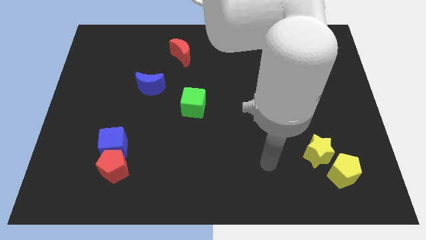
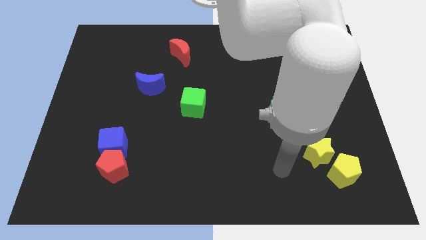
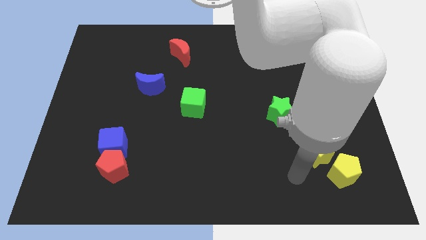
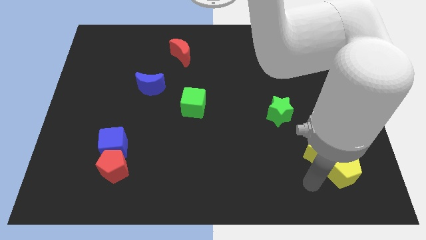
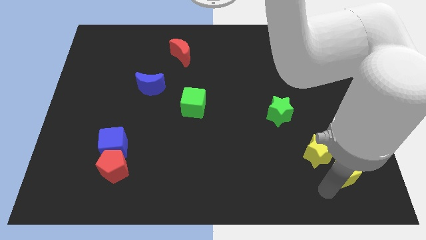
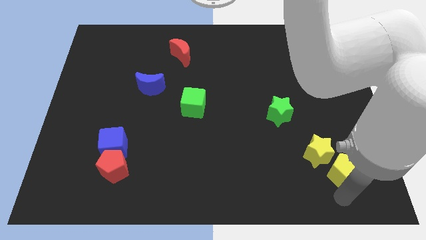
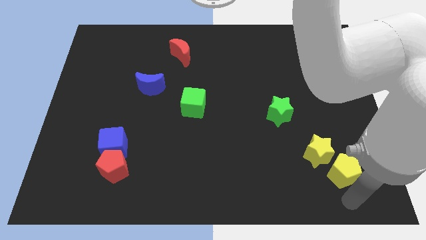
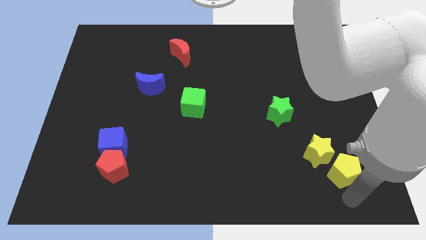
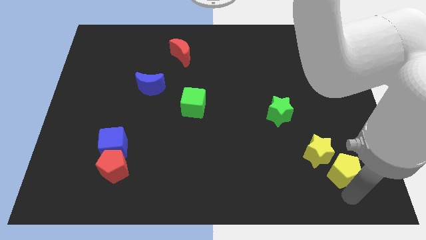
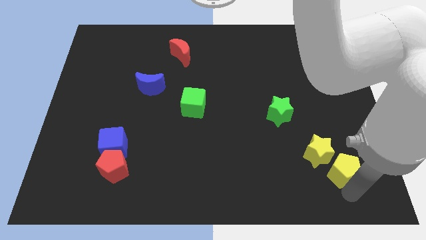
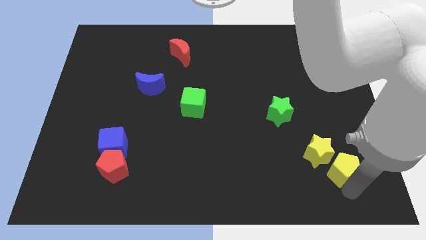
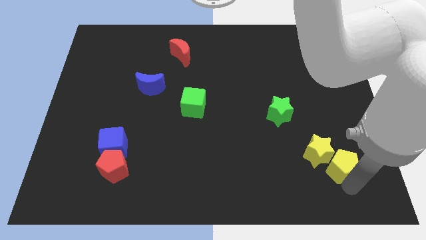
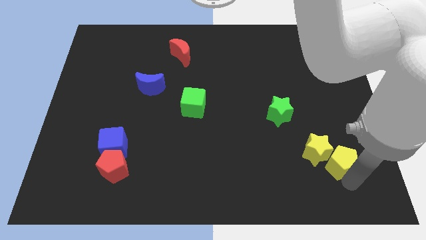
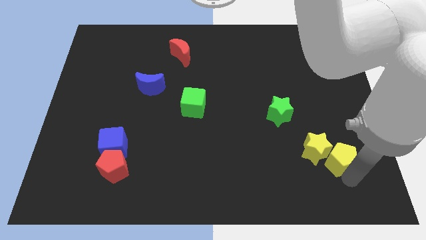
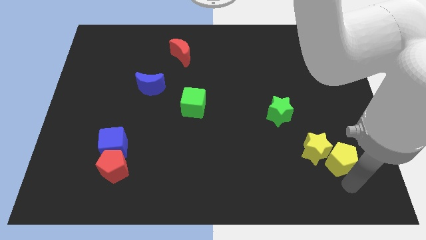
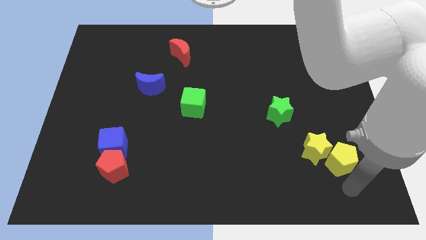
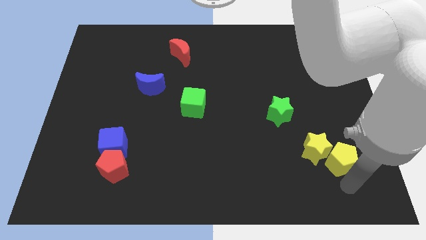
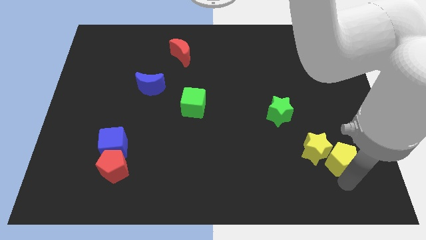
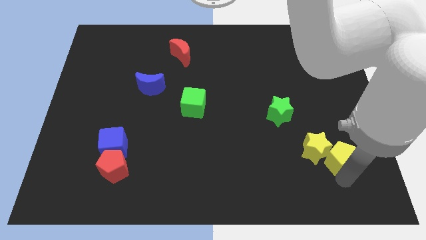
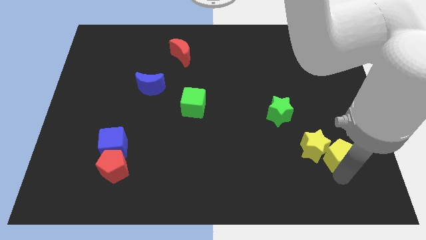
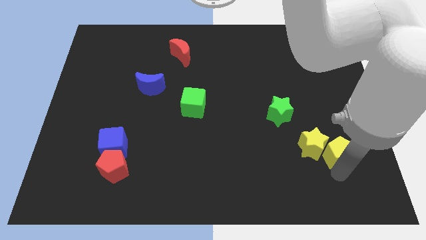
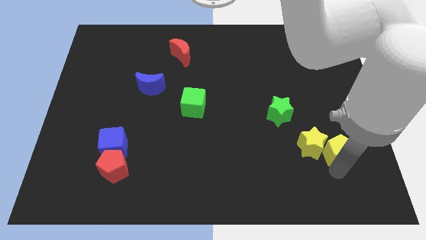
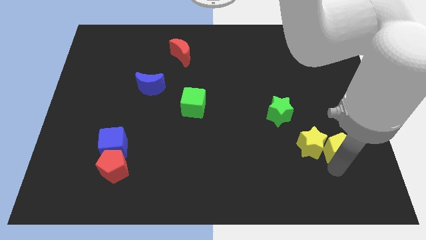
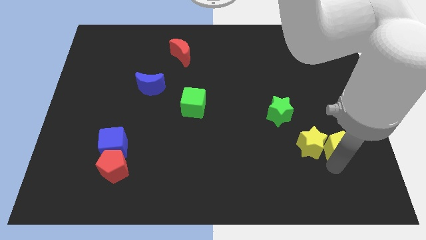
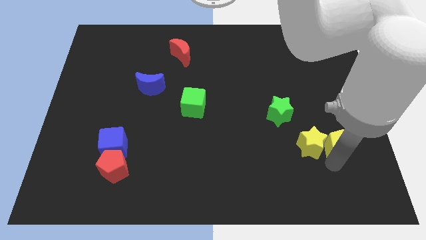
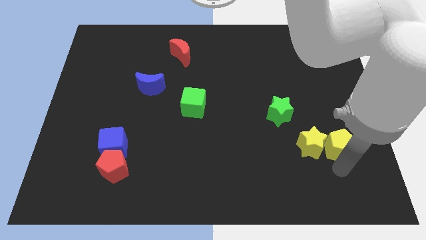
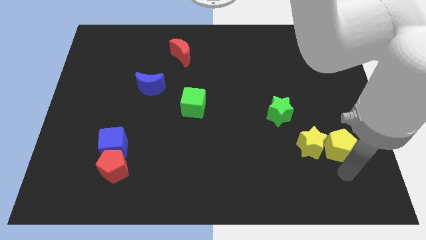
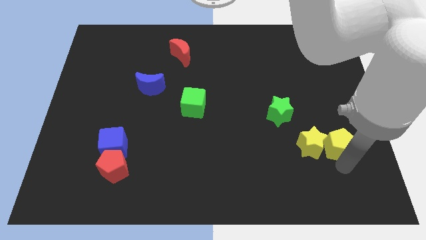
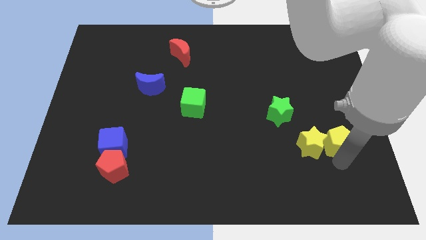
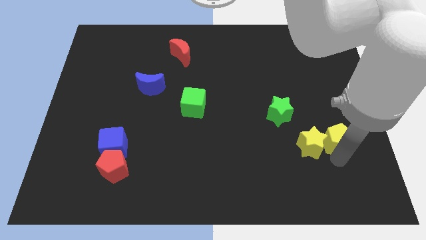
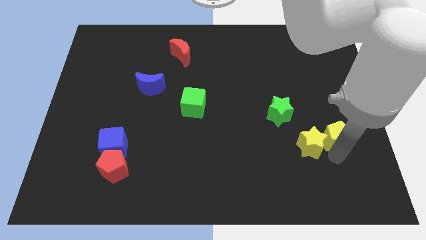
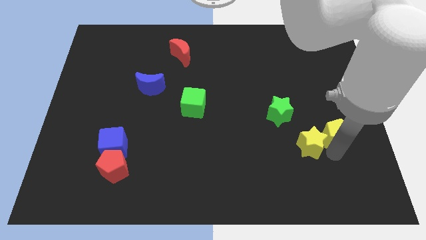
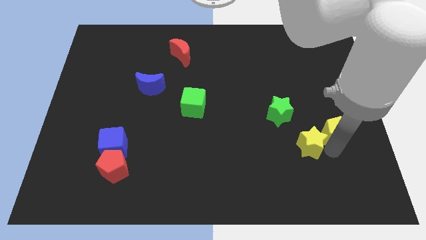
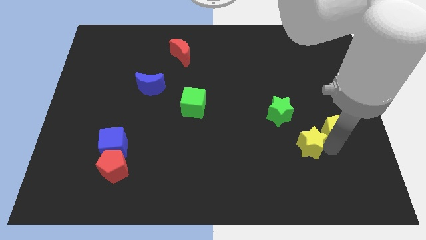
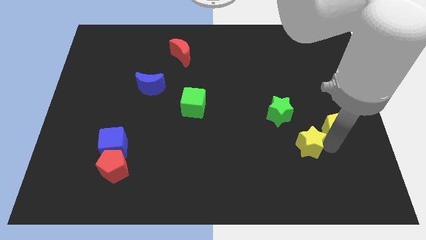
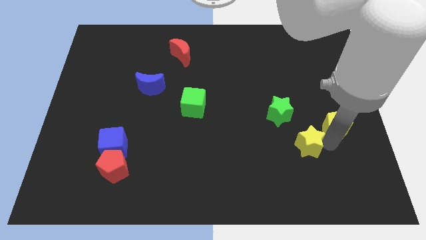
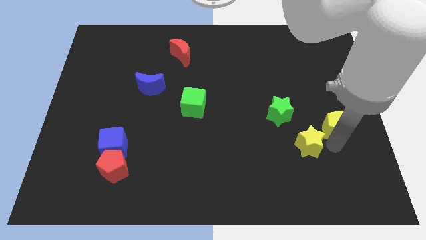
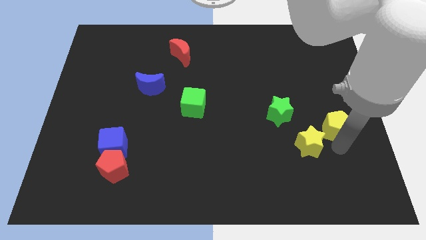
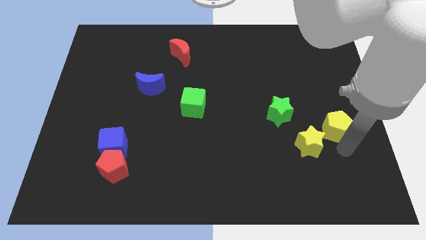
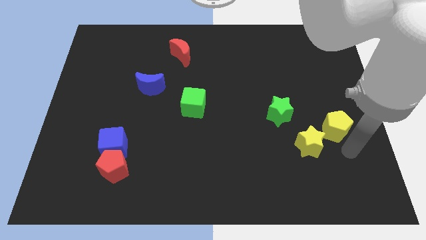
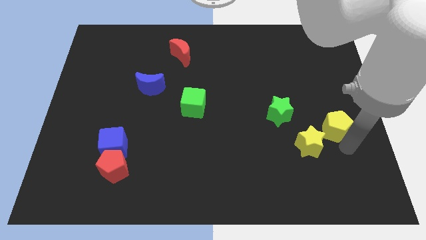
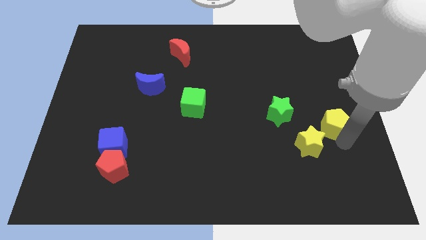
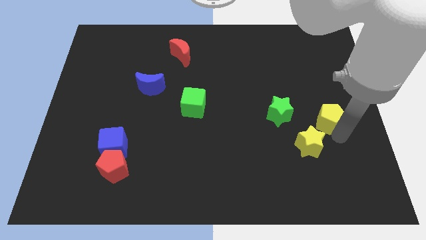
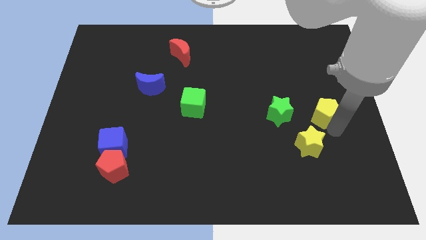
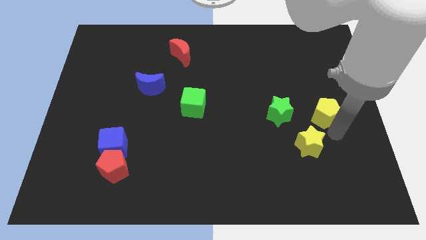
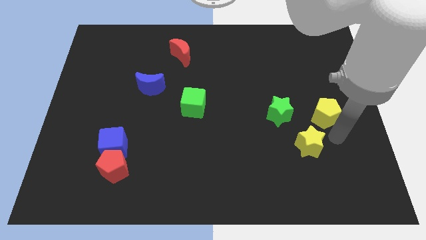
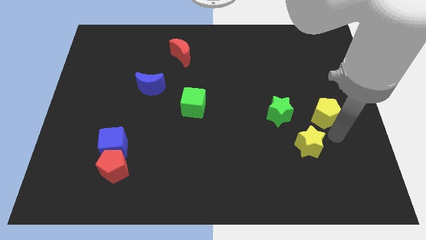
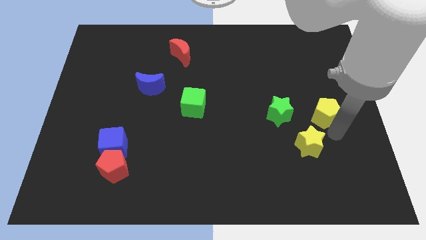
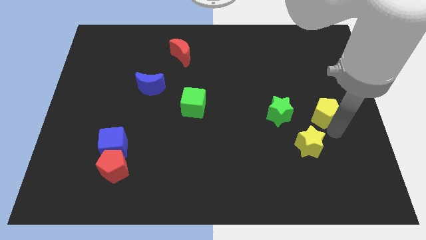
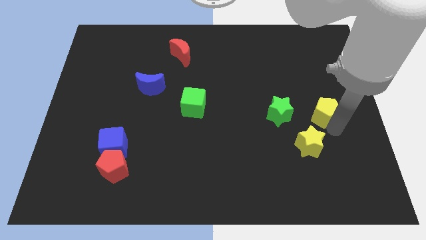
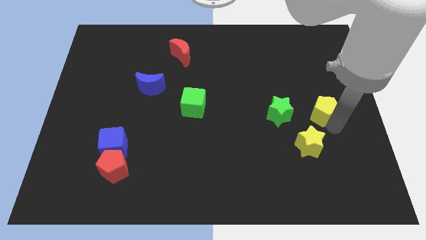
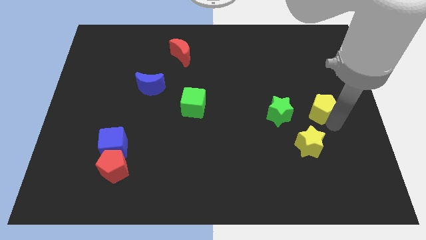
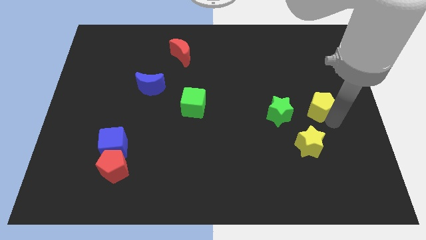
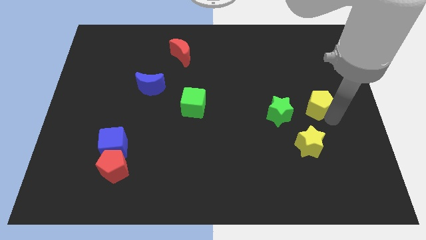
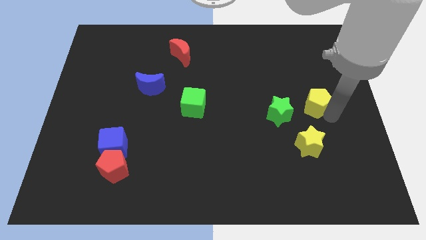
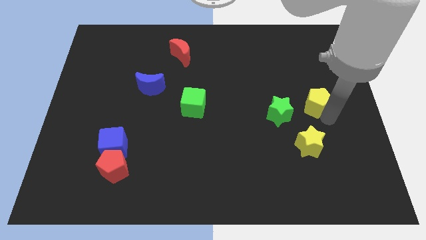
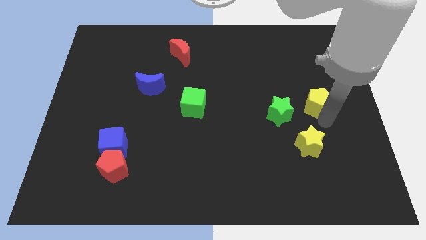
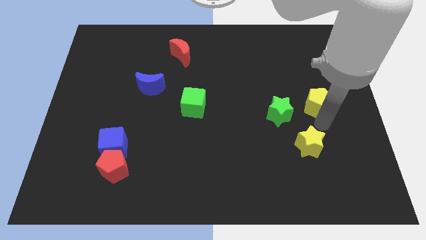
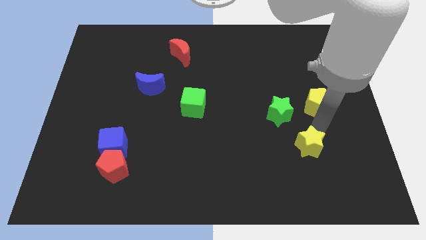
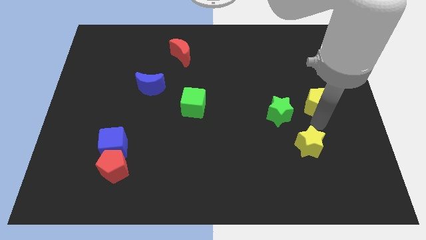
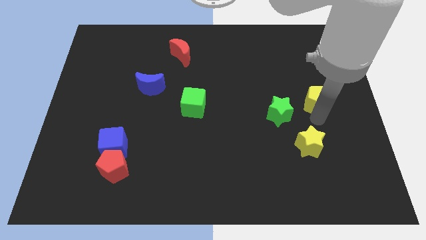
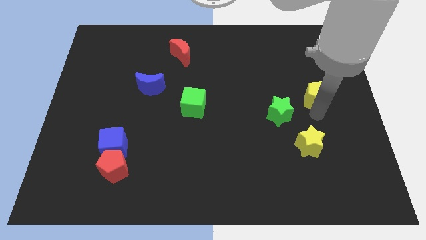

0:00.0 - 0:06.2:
slide the yellow pentagon up

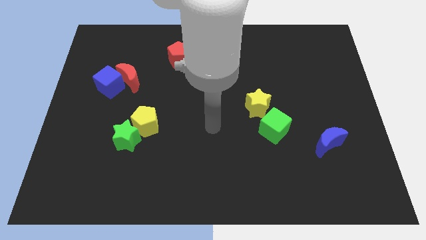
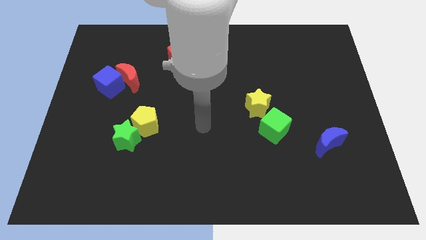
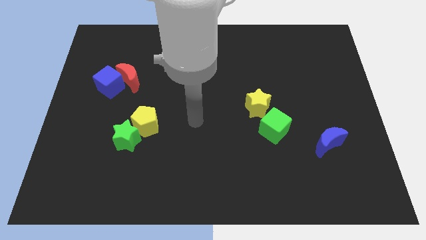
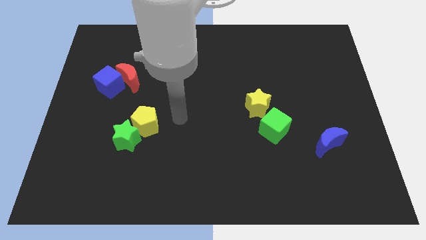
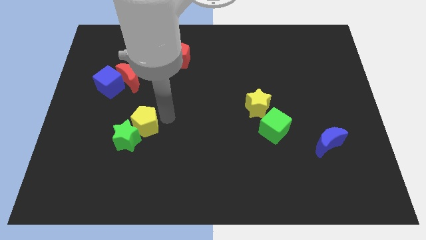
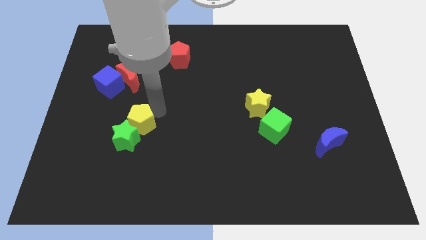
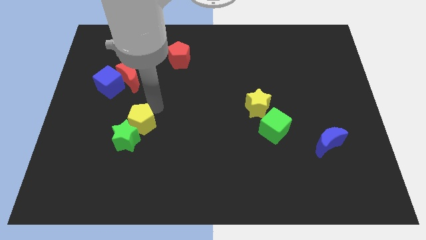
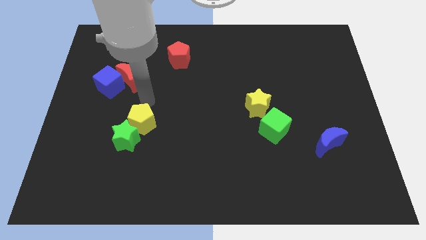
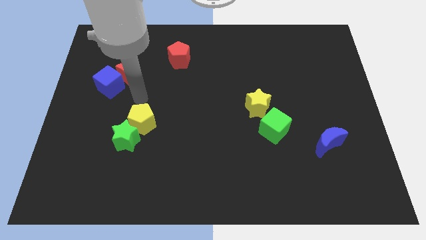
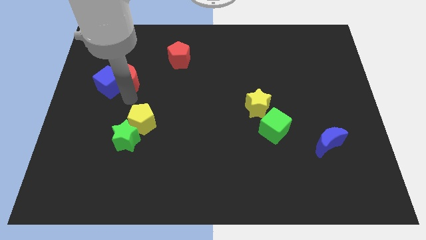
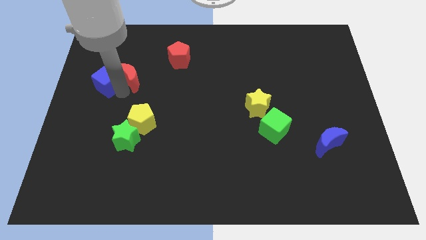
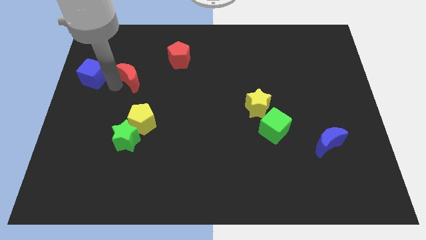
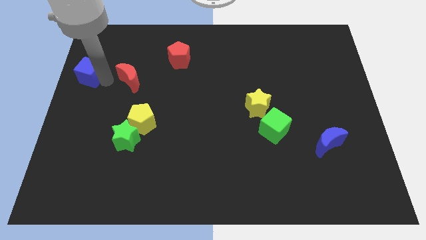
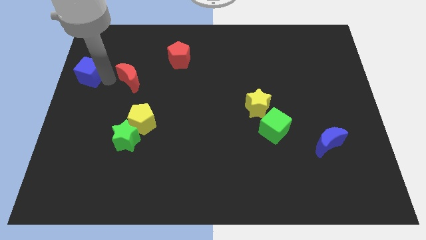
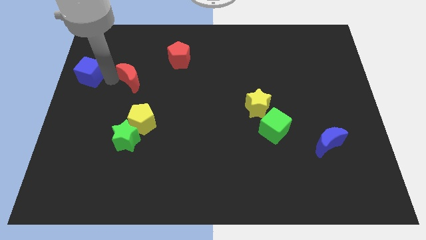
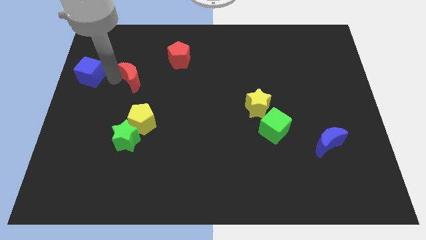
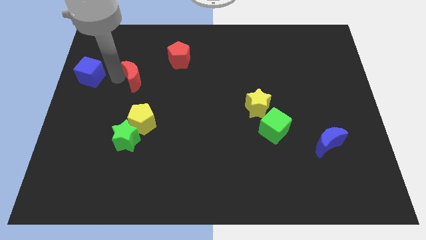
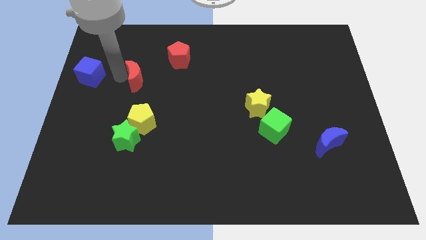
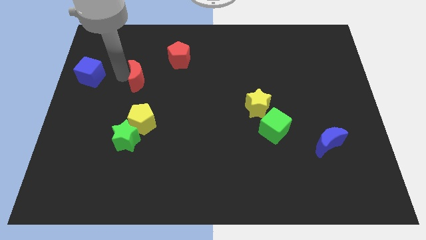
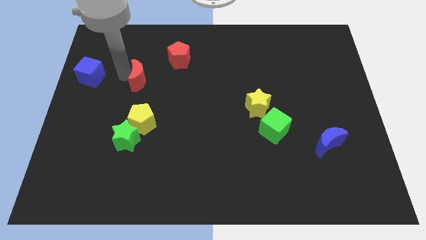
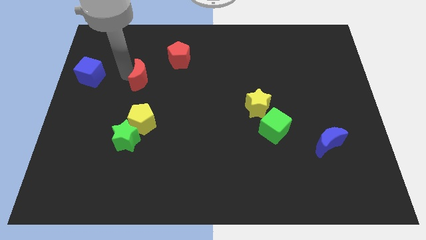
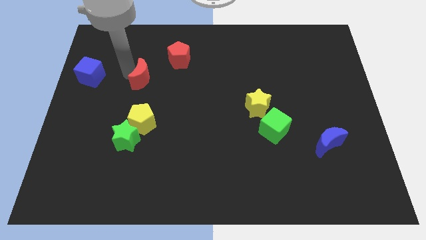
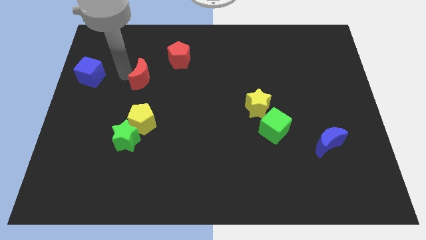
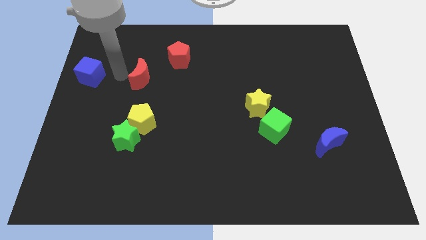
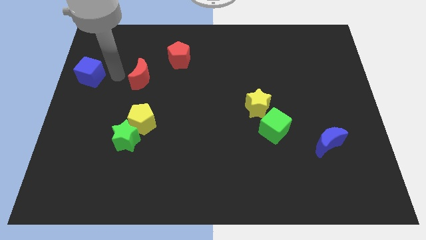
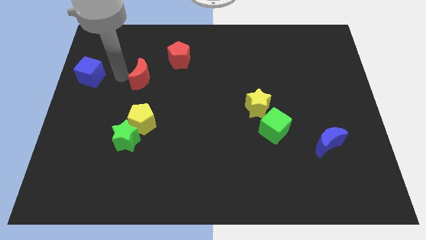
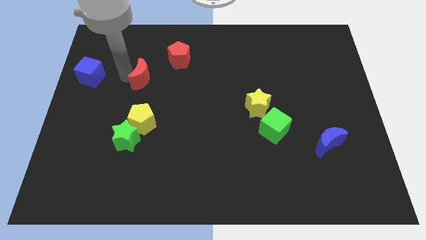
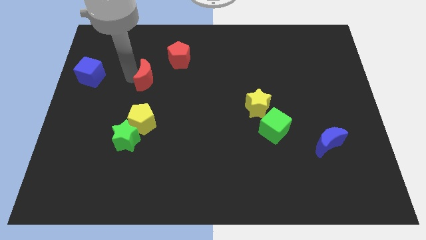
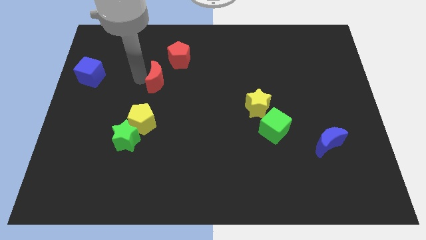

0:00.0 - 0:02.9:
slide the red moon somewhat to the right
